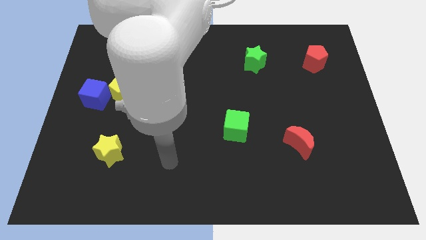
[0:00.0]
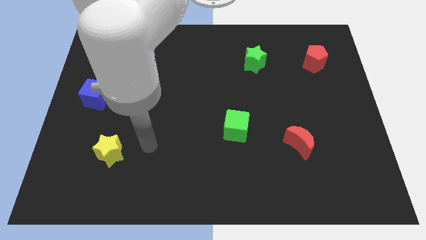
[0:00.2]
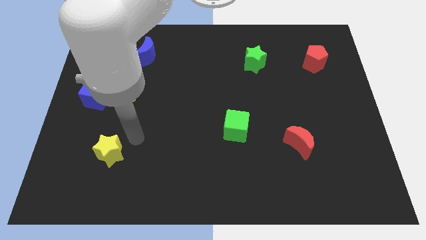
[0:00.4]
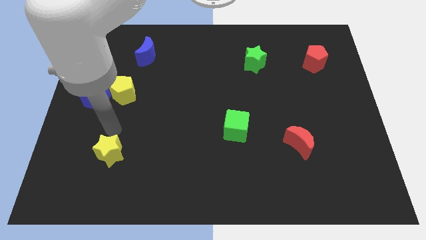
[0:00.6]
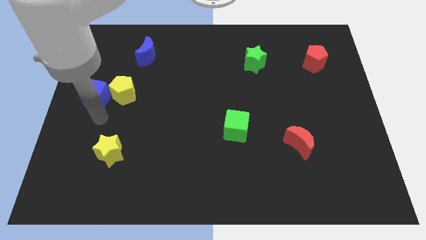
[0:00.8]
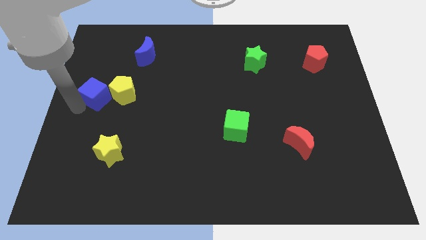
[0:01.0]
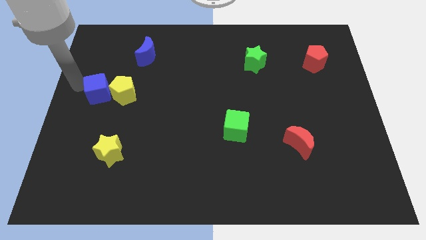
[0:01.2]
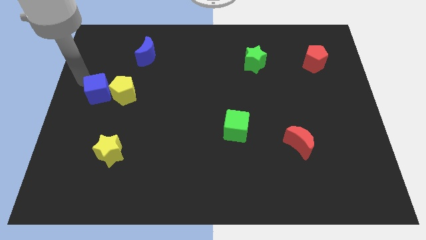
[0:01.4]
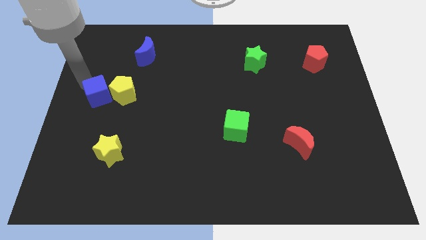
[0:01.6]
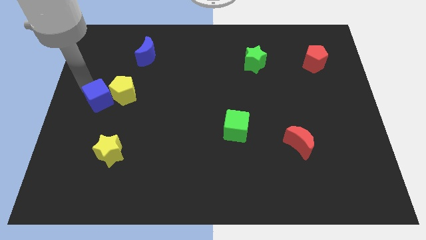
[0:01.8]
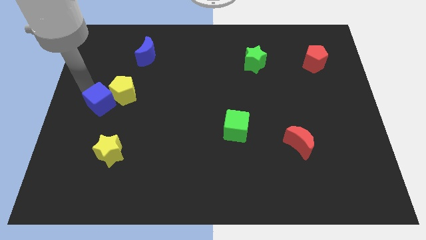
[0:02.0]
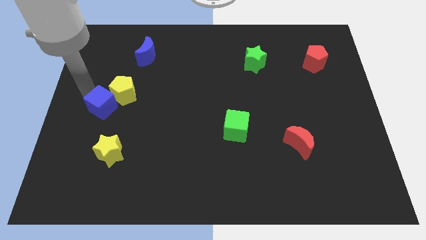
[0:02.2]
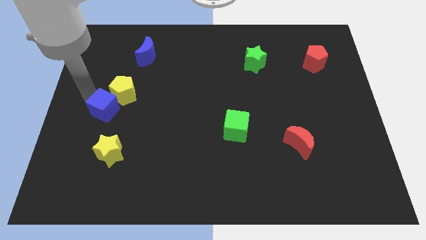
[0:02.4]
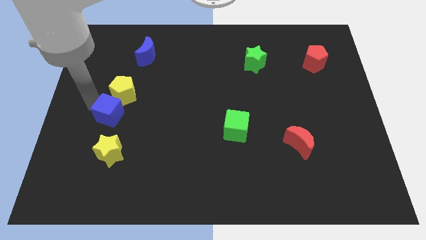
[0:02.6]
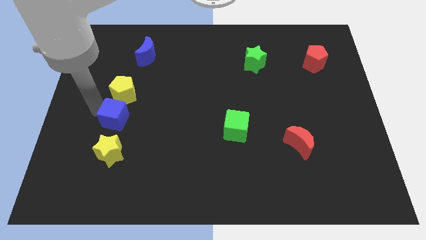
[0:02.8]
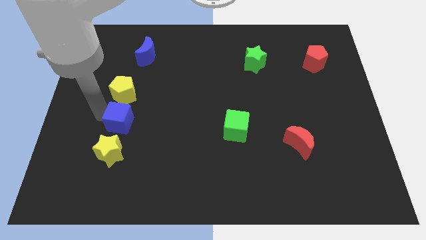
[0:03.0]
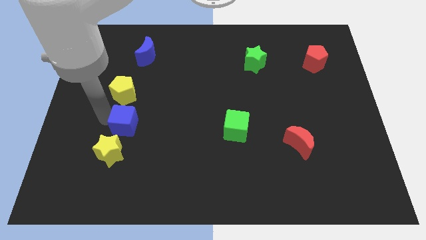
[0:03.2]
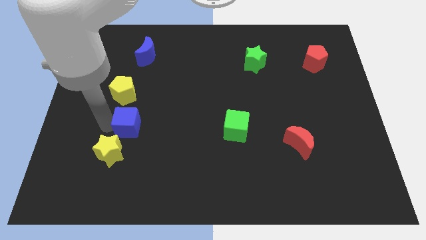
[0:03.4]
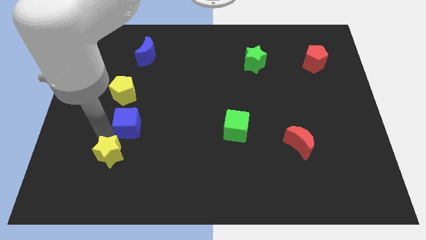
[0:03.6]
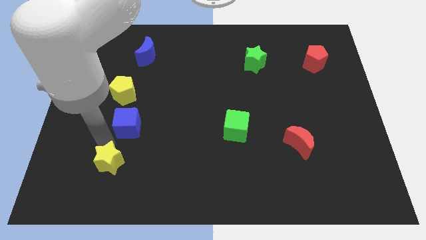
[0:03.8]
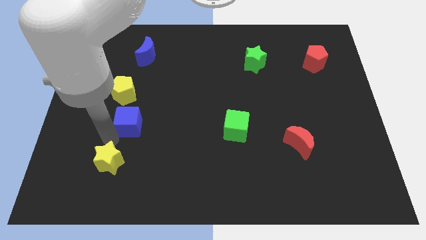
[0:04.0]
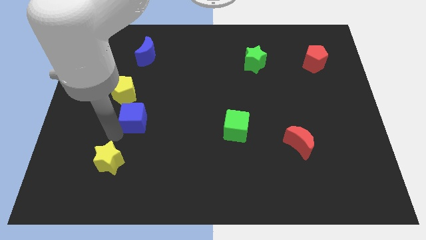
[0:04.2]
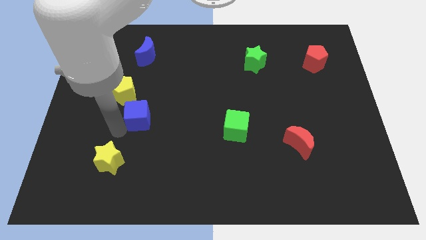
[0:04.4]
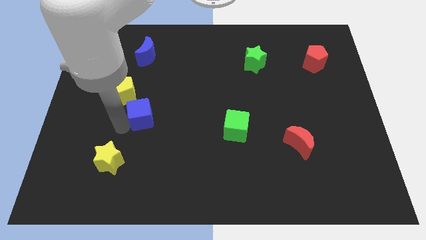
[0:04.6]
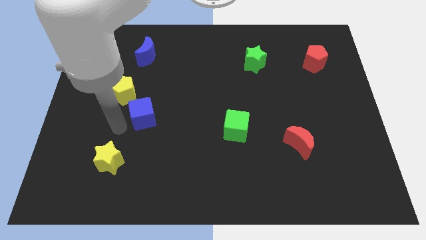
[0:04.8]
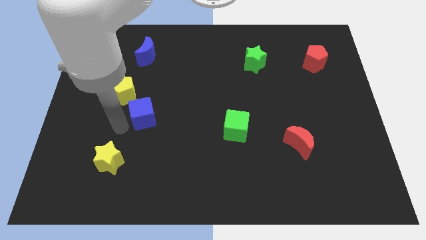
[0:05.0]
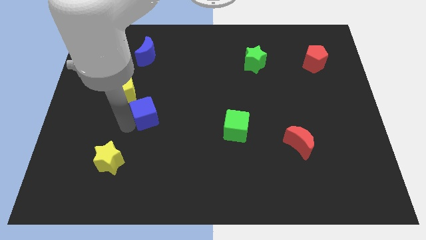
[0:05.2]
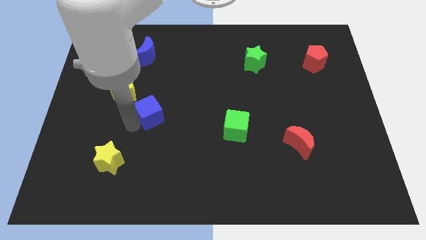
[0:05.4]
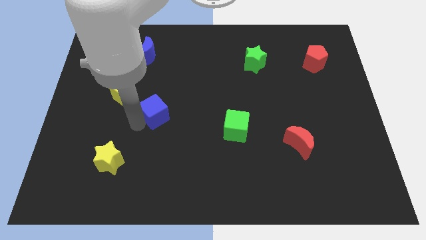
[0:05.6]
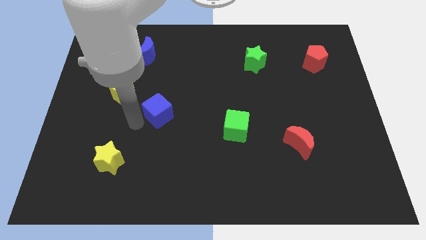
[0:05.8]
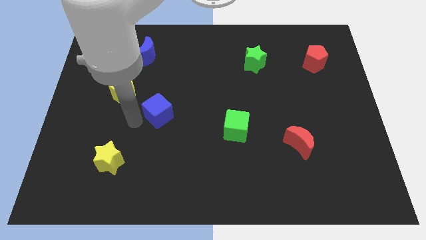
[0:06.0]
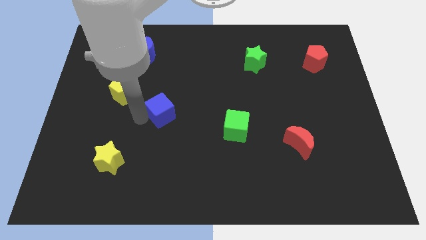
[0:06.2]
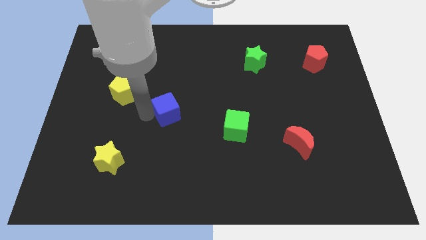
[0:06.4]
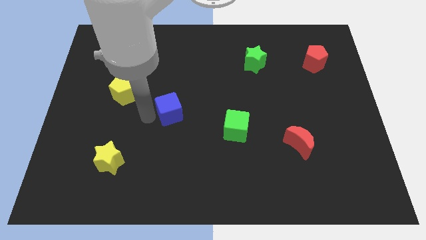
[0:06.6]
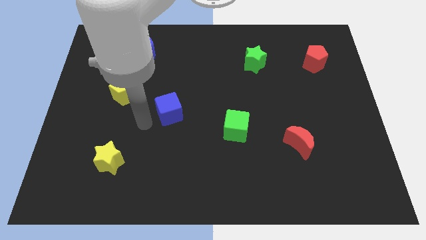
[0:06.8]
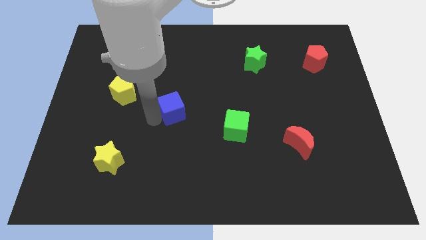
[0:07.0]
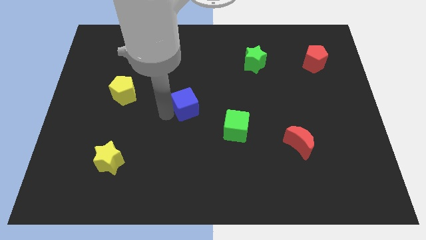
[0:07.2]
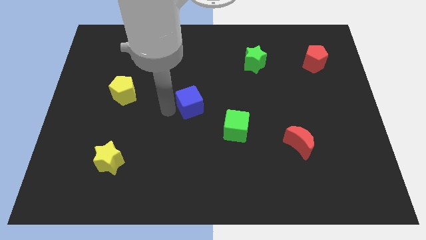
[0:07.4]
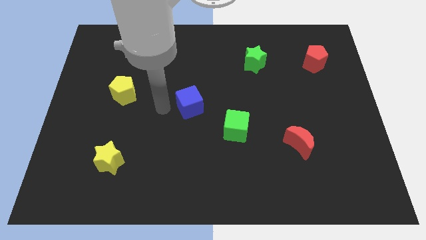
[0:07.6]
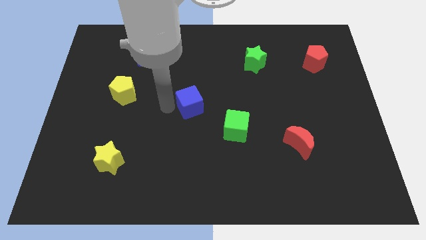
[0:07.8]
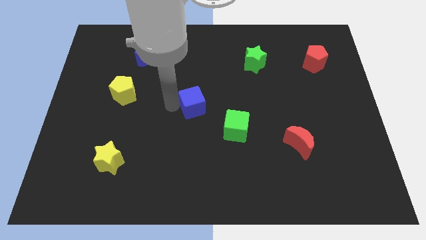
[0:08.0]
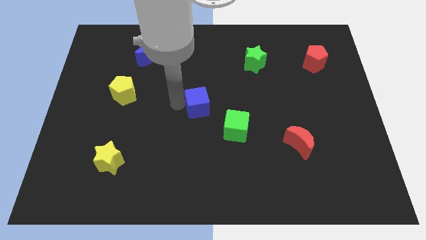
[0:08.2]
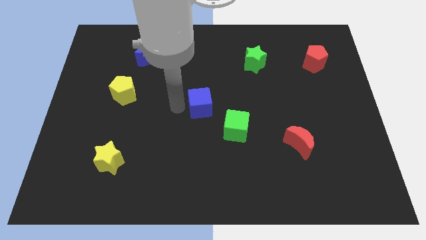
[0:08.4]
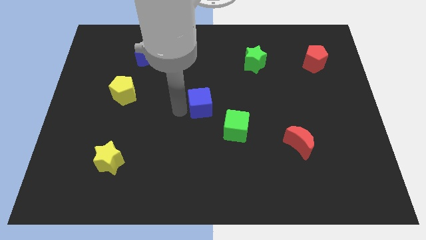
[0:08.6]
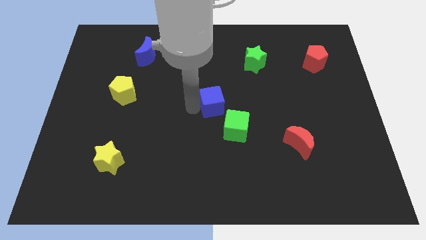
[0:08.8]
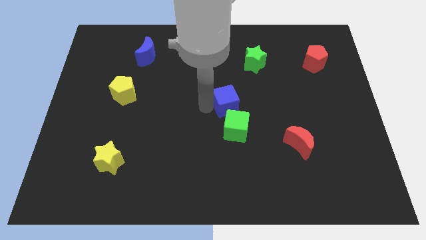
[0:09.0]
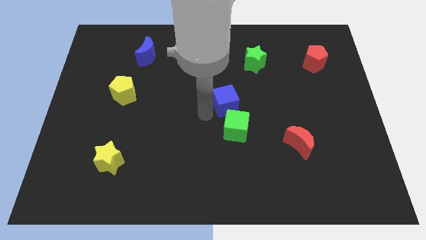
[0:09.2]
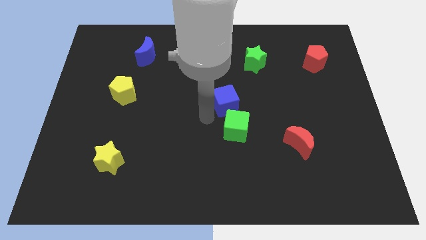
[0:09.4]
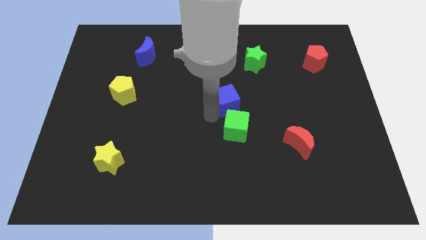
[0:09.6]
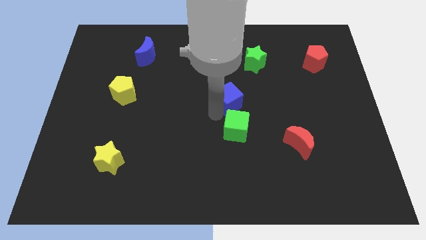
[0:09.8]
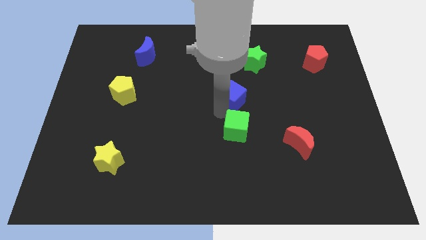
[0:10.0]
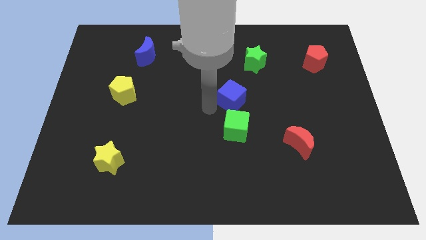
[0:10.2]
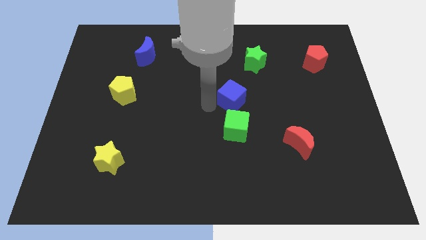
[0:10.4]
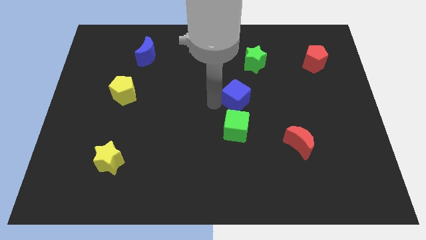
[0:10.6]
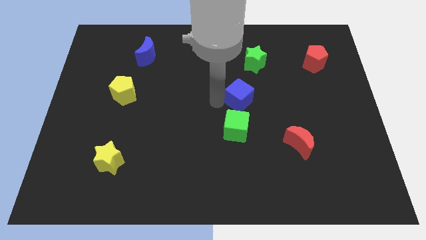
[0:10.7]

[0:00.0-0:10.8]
slide the blue cube below the green star

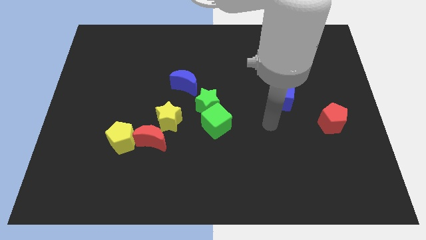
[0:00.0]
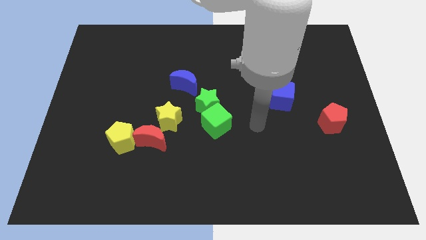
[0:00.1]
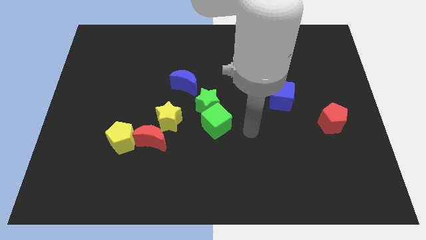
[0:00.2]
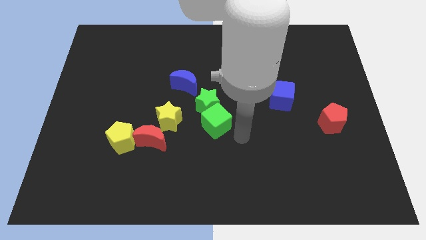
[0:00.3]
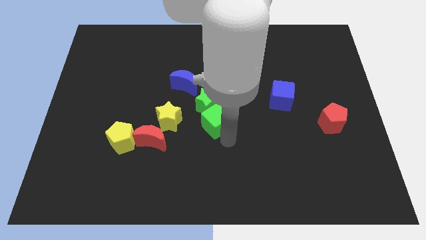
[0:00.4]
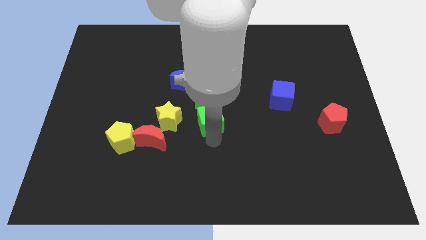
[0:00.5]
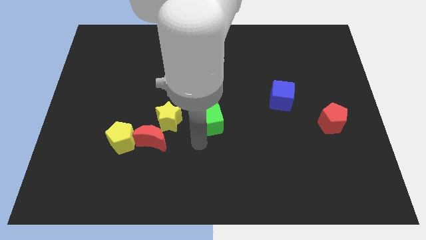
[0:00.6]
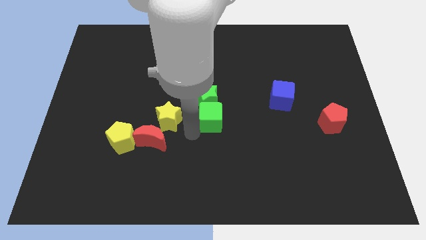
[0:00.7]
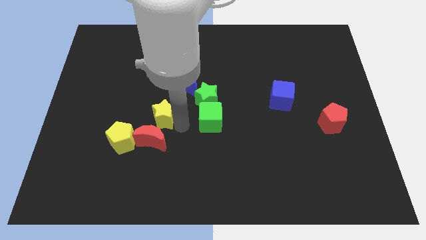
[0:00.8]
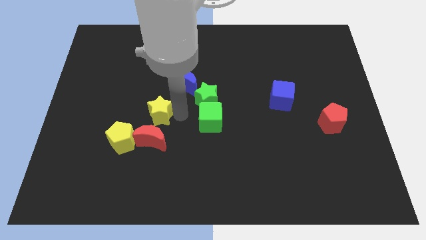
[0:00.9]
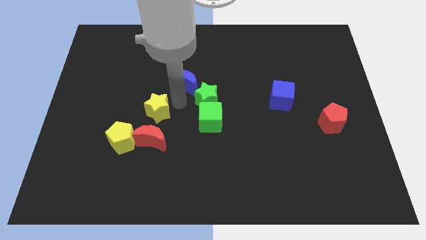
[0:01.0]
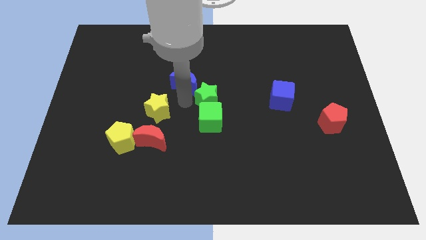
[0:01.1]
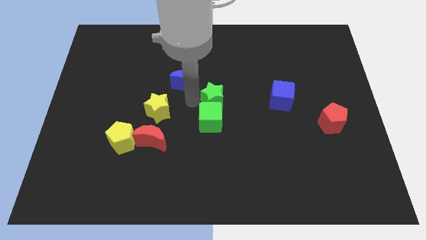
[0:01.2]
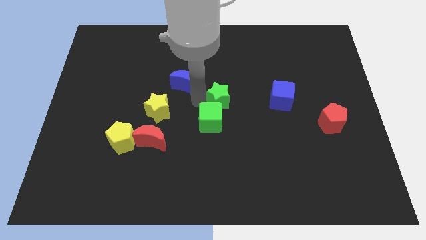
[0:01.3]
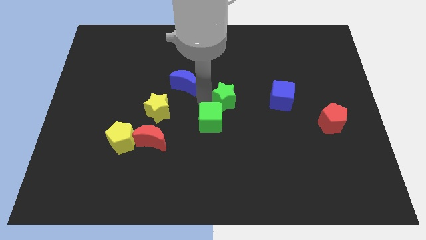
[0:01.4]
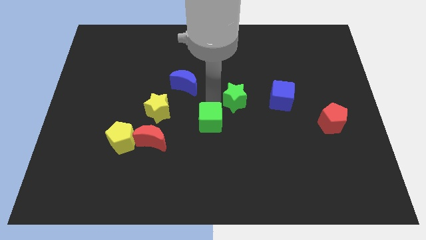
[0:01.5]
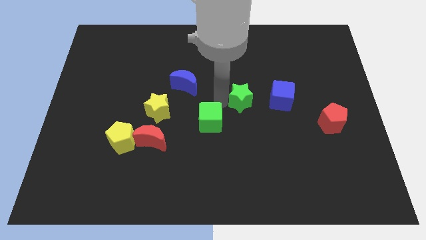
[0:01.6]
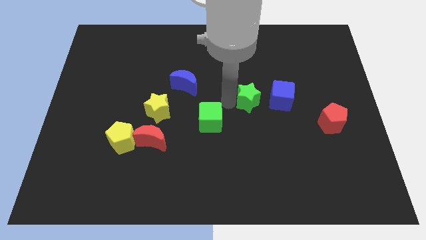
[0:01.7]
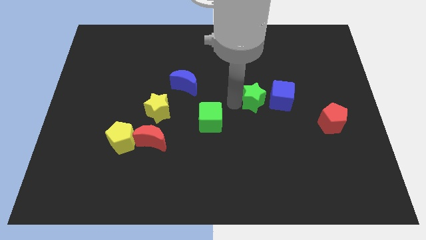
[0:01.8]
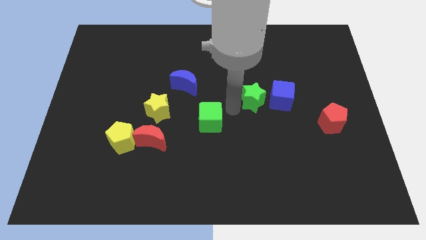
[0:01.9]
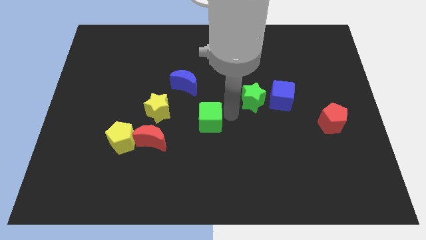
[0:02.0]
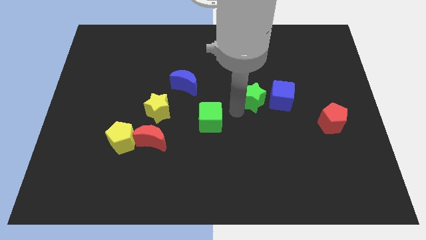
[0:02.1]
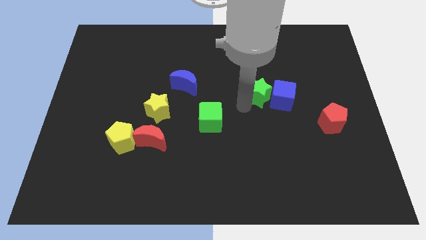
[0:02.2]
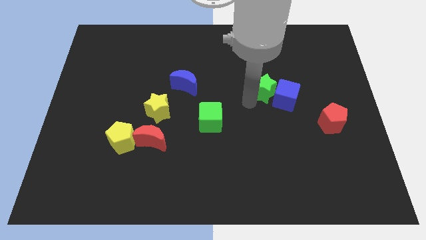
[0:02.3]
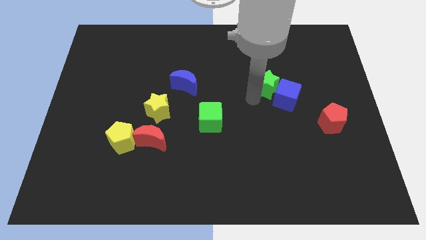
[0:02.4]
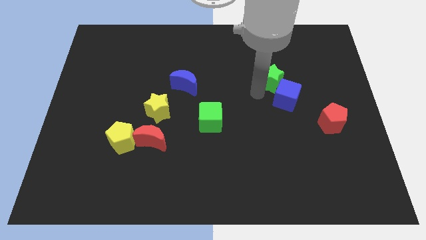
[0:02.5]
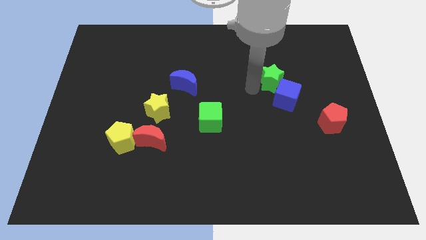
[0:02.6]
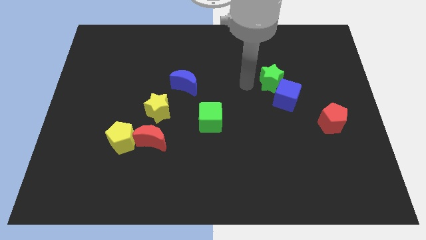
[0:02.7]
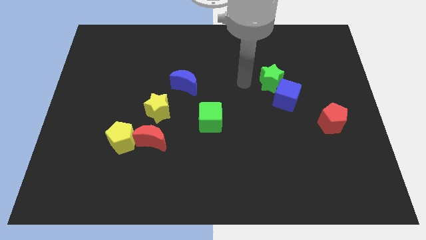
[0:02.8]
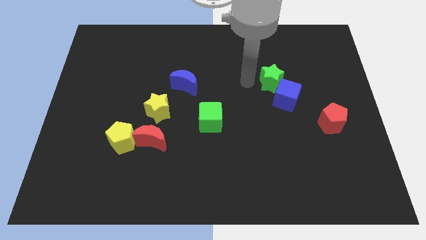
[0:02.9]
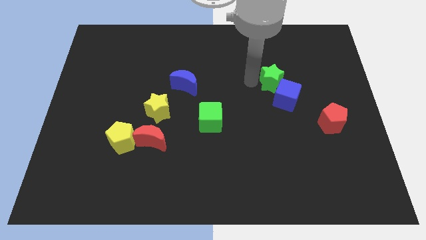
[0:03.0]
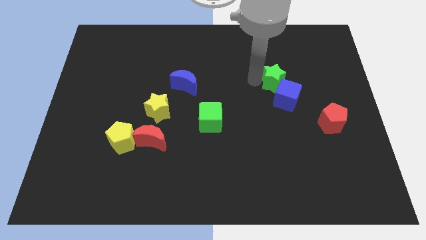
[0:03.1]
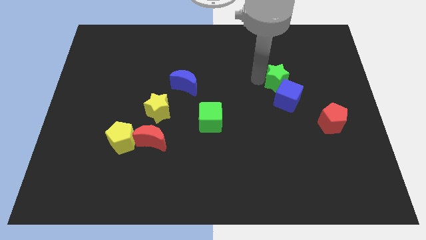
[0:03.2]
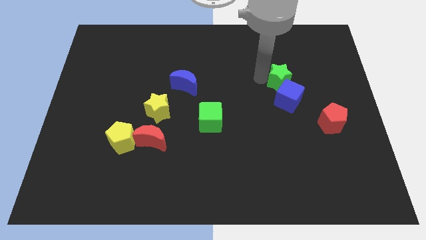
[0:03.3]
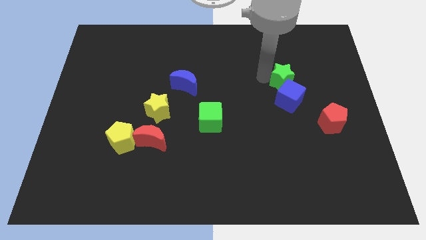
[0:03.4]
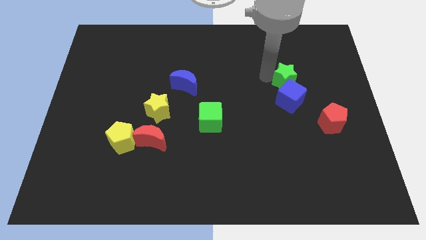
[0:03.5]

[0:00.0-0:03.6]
move the green star diagonally up and to the right of the blue cube
